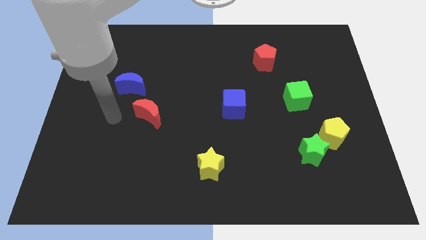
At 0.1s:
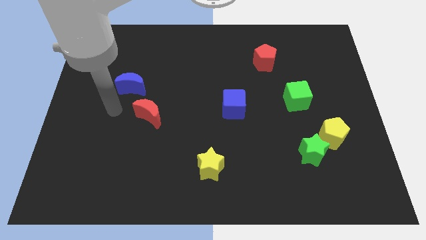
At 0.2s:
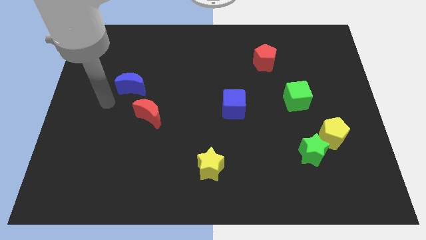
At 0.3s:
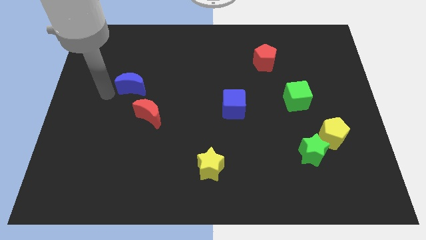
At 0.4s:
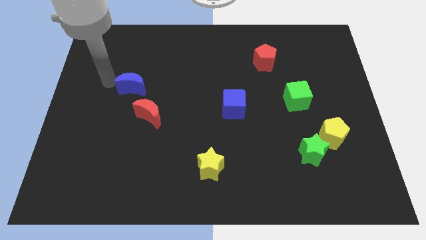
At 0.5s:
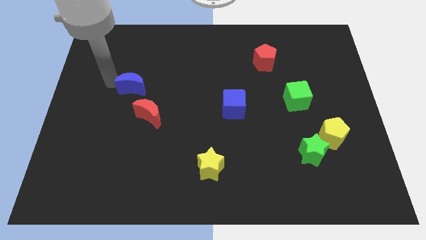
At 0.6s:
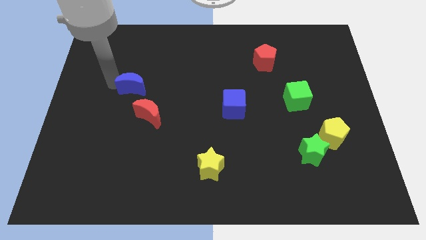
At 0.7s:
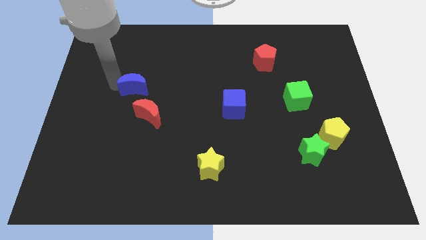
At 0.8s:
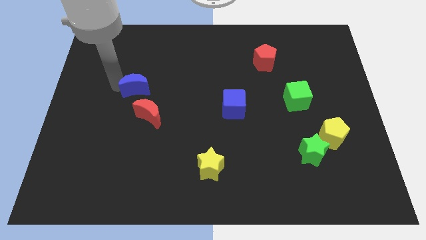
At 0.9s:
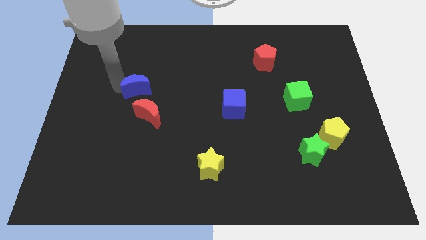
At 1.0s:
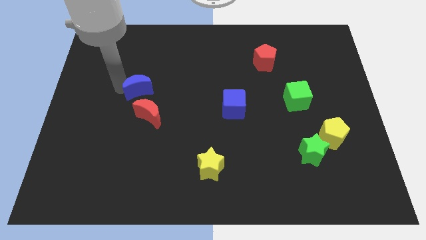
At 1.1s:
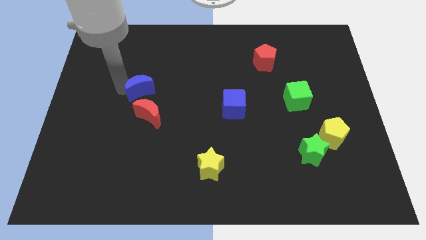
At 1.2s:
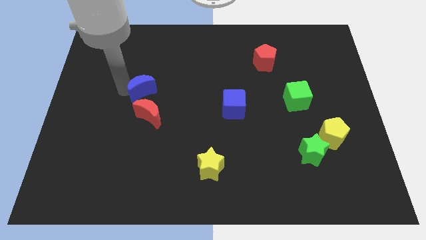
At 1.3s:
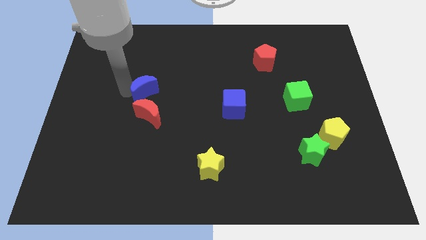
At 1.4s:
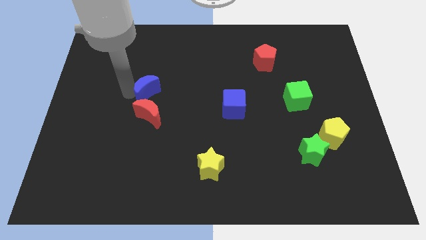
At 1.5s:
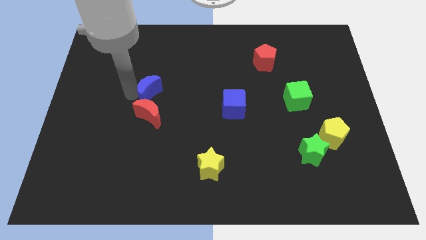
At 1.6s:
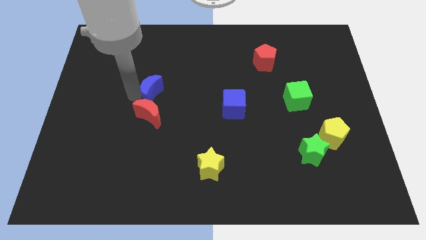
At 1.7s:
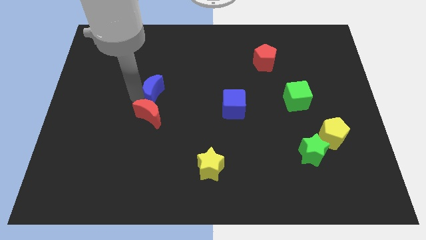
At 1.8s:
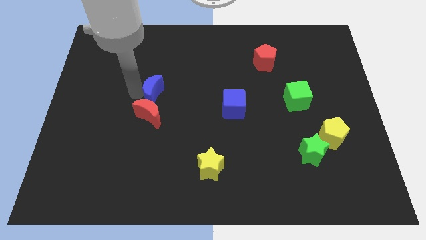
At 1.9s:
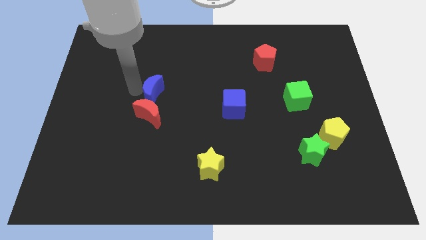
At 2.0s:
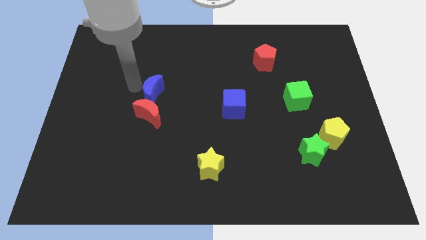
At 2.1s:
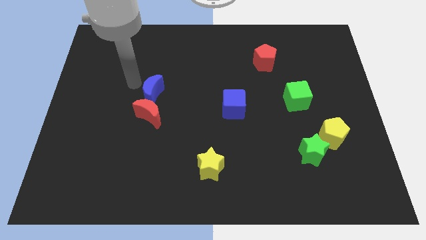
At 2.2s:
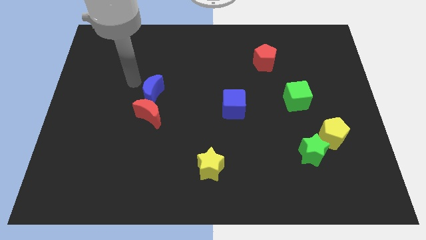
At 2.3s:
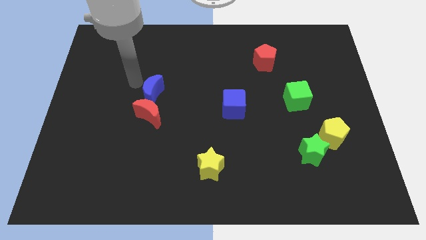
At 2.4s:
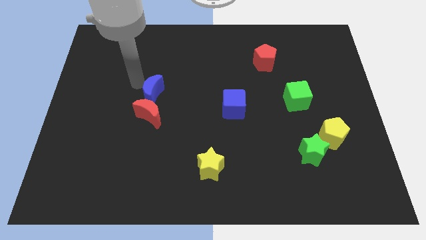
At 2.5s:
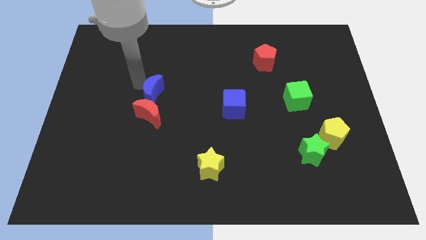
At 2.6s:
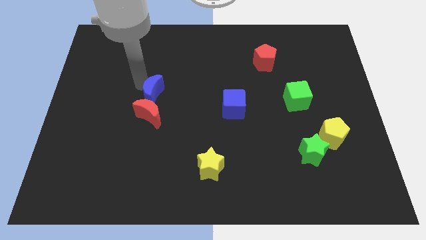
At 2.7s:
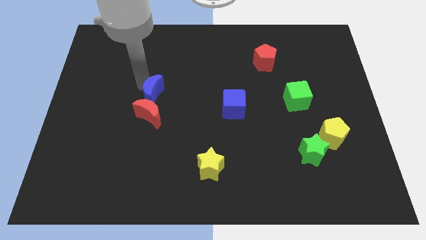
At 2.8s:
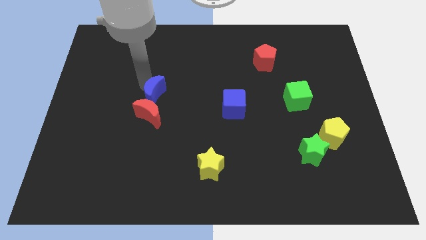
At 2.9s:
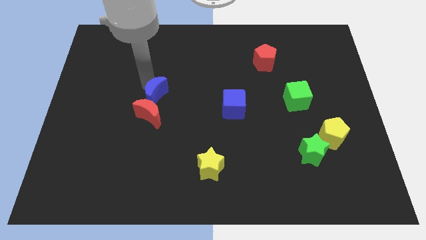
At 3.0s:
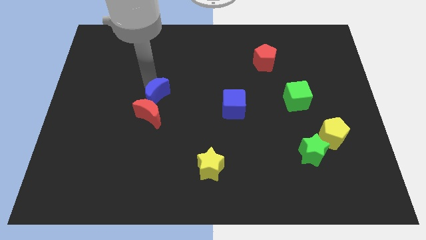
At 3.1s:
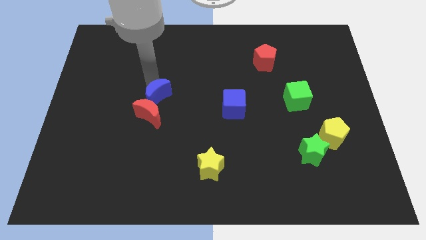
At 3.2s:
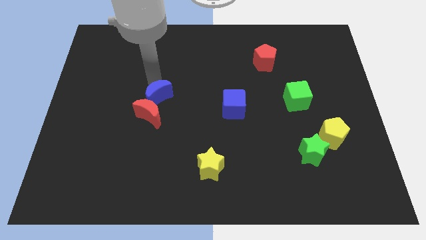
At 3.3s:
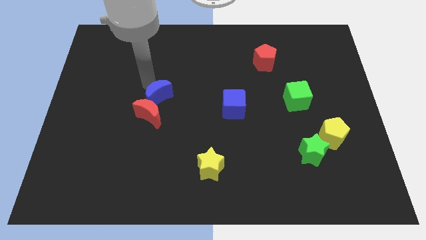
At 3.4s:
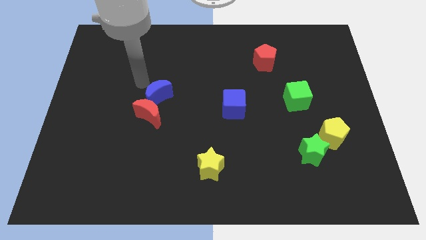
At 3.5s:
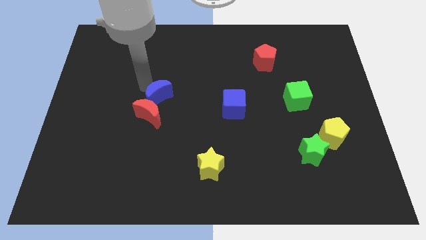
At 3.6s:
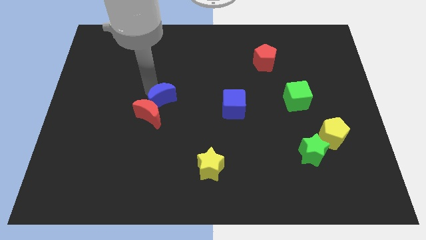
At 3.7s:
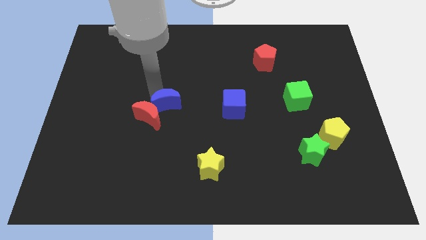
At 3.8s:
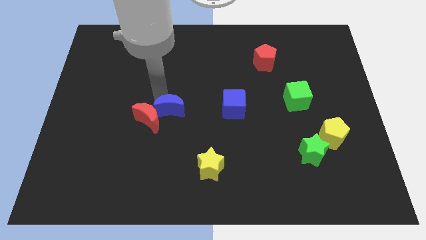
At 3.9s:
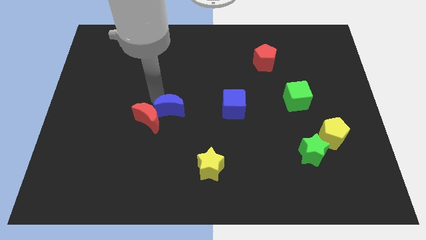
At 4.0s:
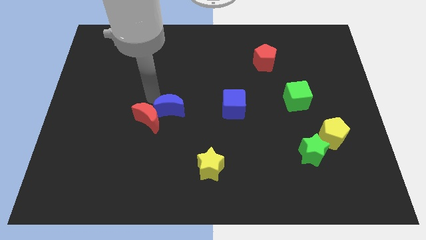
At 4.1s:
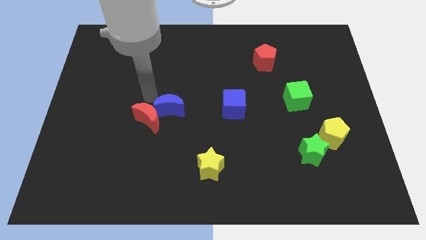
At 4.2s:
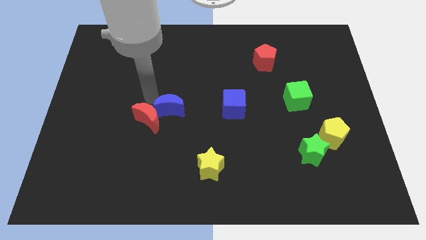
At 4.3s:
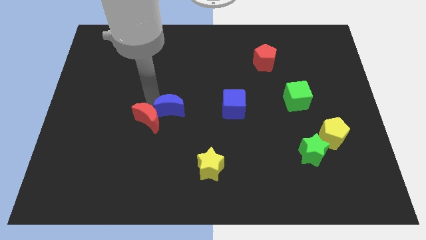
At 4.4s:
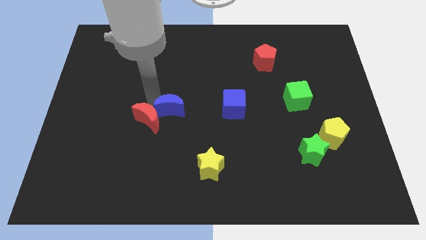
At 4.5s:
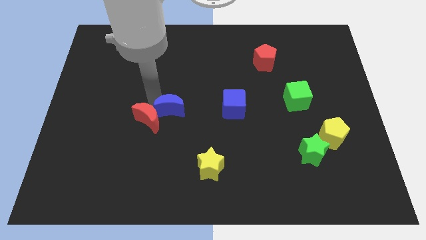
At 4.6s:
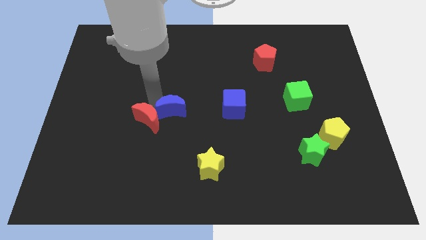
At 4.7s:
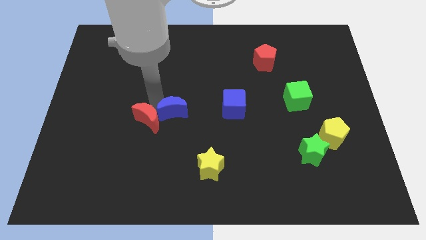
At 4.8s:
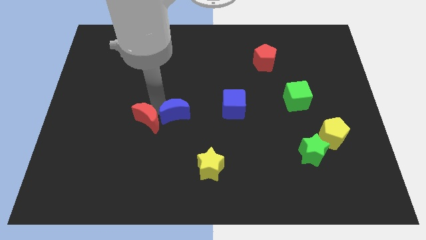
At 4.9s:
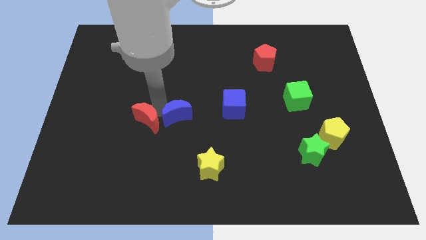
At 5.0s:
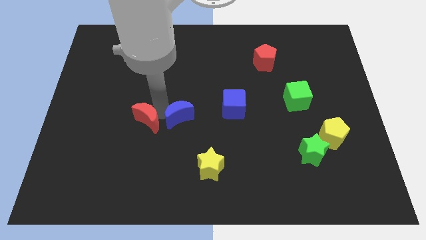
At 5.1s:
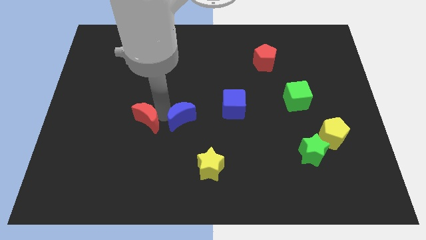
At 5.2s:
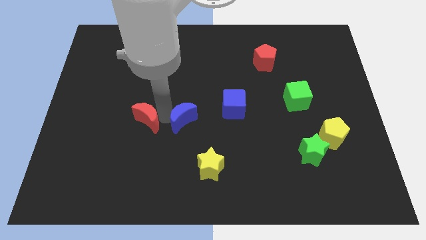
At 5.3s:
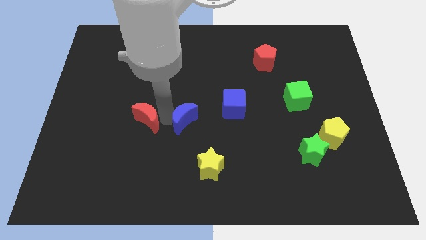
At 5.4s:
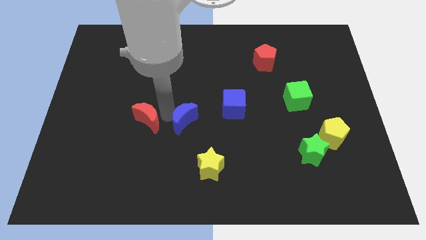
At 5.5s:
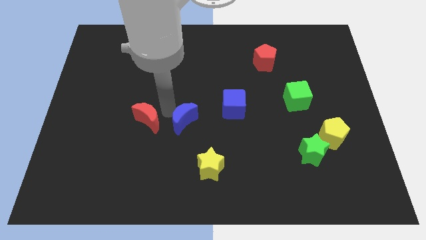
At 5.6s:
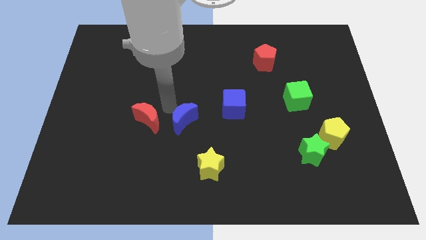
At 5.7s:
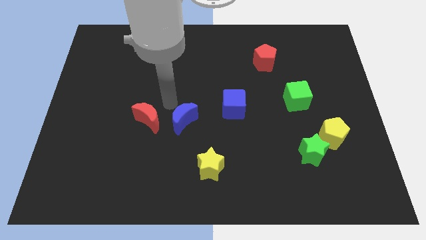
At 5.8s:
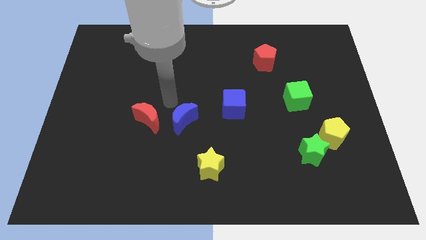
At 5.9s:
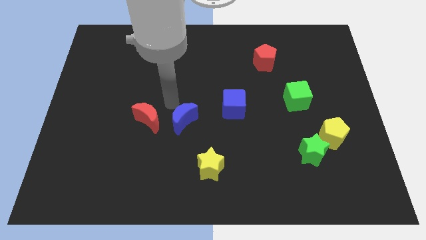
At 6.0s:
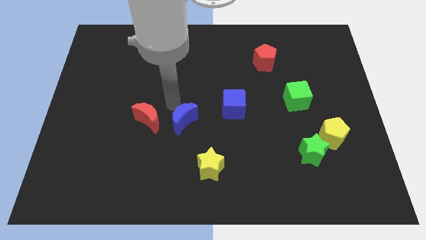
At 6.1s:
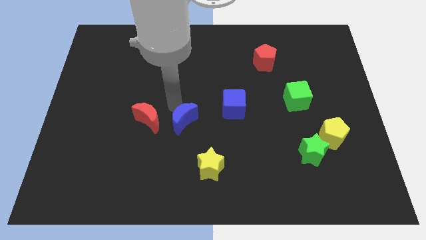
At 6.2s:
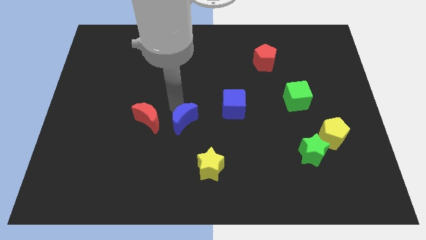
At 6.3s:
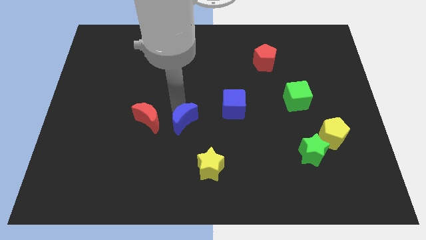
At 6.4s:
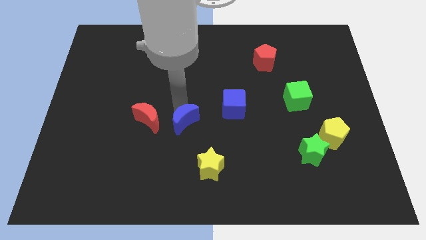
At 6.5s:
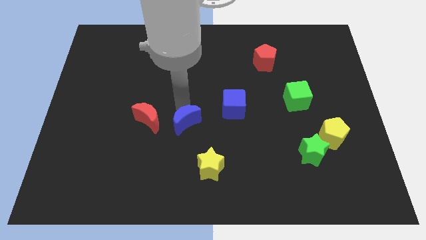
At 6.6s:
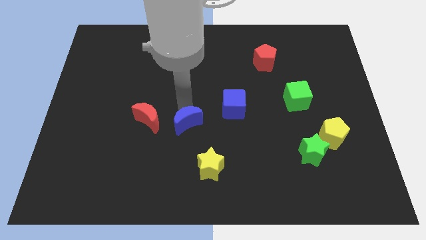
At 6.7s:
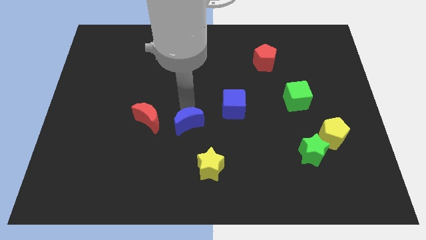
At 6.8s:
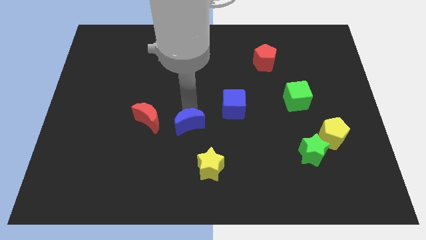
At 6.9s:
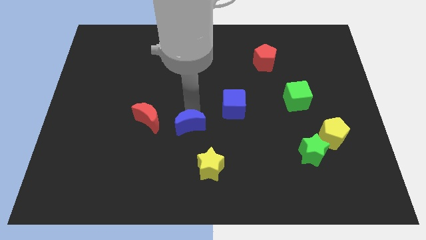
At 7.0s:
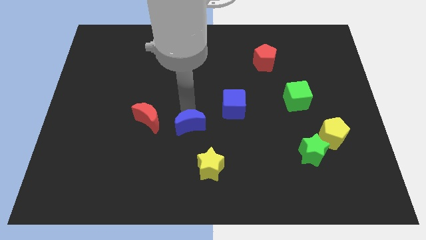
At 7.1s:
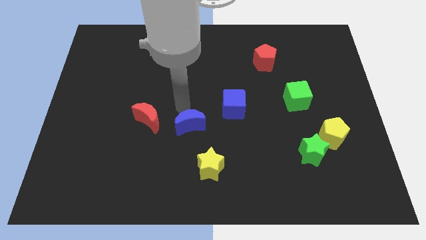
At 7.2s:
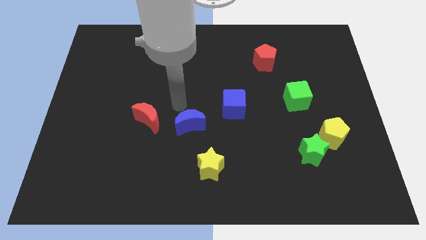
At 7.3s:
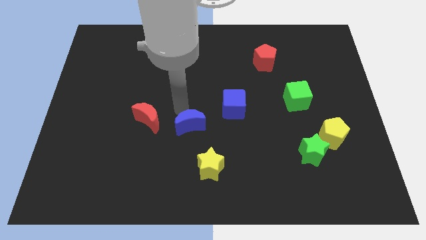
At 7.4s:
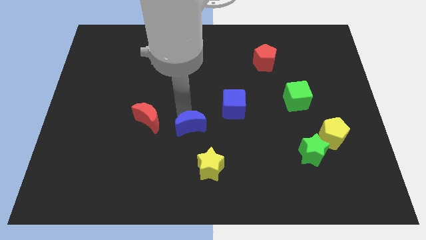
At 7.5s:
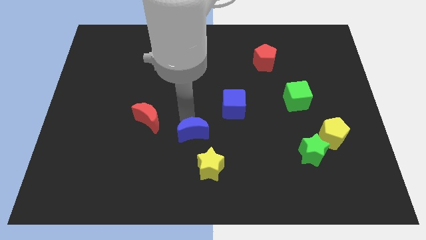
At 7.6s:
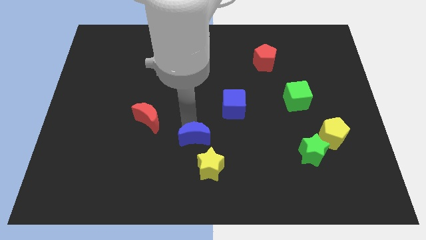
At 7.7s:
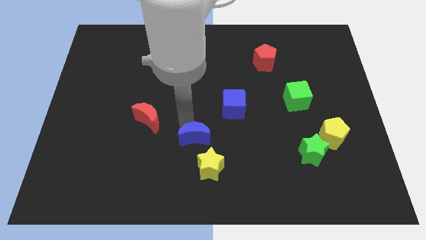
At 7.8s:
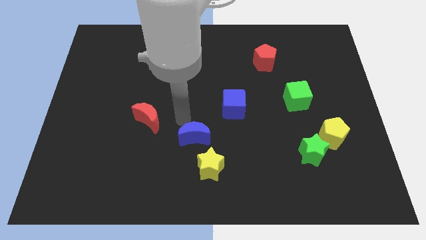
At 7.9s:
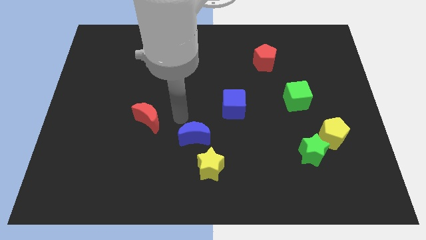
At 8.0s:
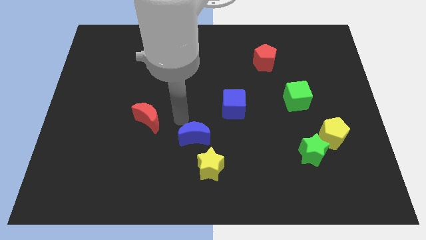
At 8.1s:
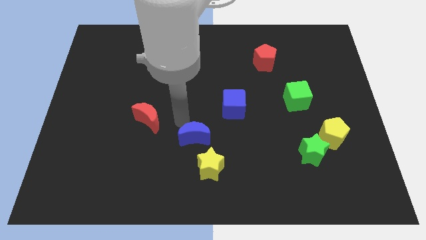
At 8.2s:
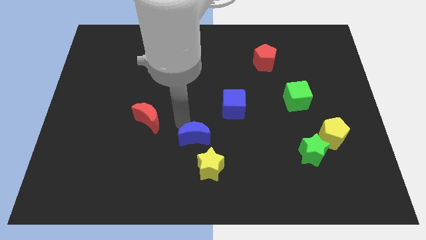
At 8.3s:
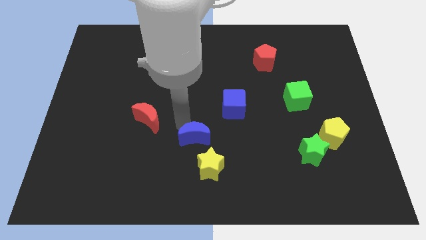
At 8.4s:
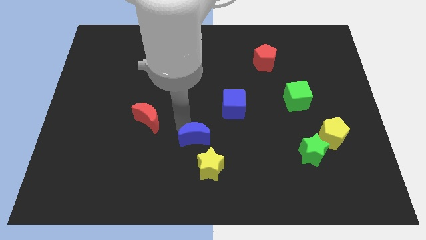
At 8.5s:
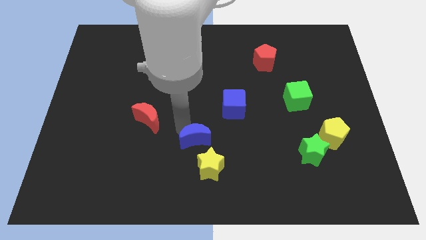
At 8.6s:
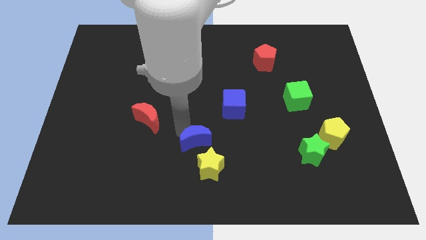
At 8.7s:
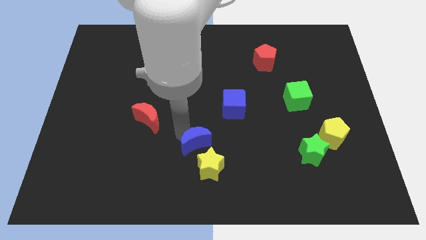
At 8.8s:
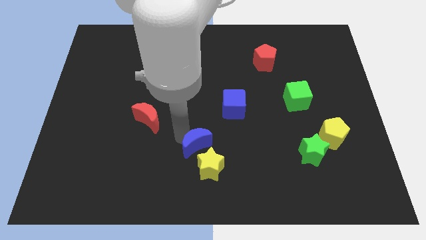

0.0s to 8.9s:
put the blue moon close to the yellow star
